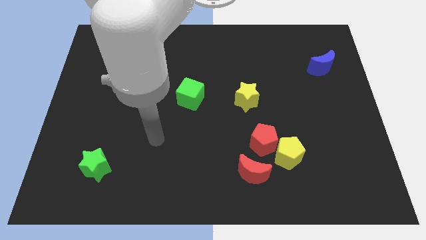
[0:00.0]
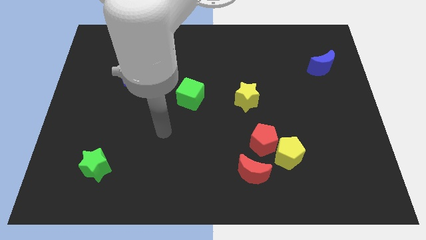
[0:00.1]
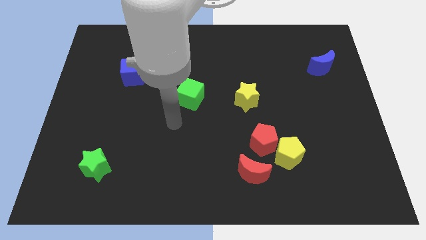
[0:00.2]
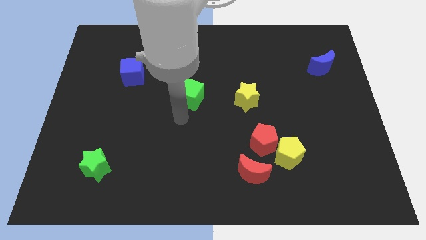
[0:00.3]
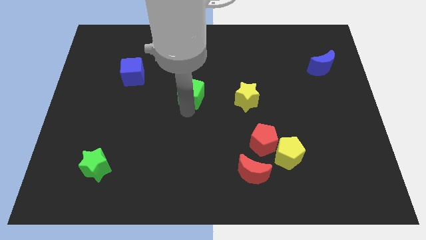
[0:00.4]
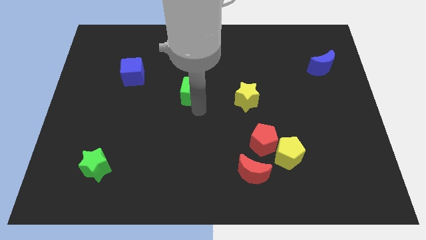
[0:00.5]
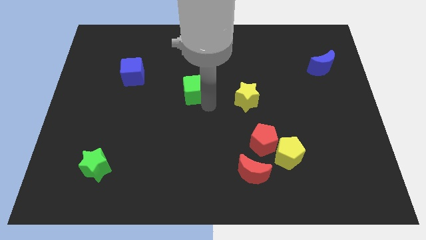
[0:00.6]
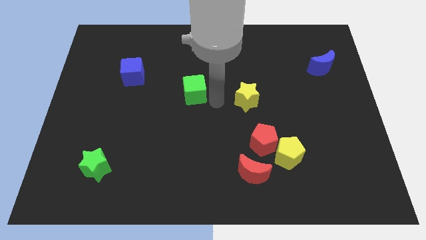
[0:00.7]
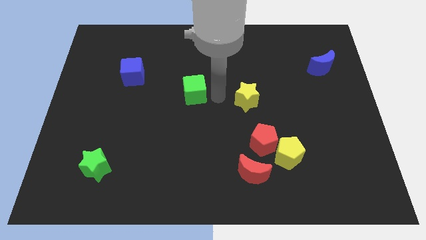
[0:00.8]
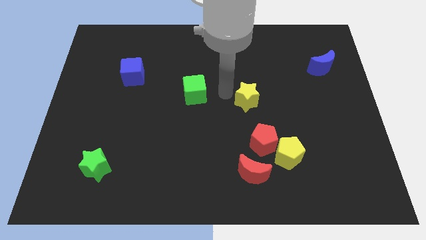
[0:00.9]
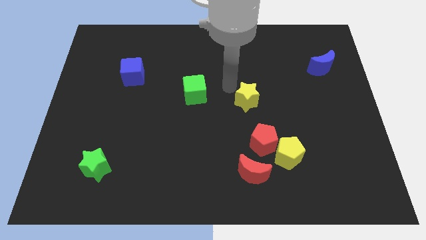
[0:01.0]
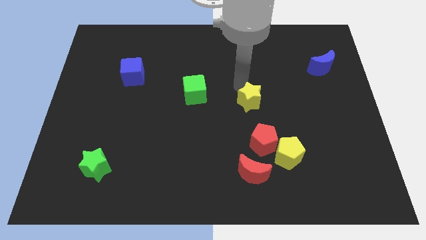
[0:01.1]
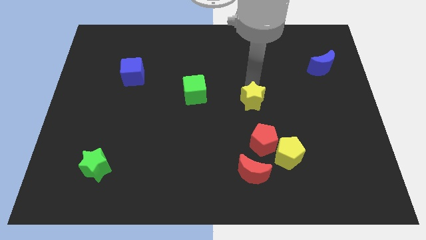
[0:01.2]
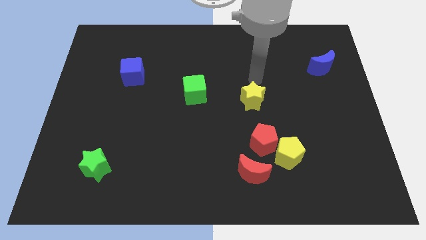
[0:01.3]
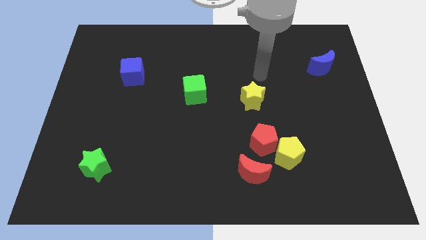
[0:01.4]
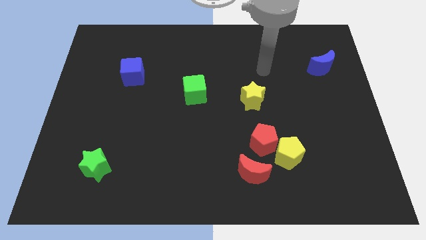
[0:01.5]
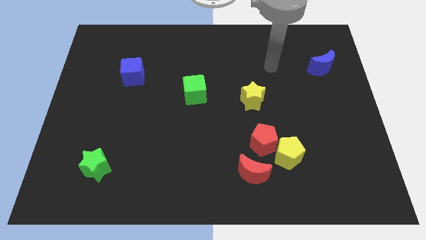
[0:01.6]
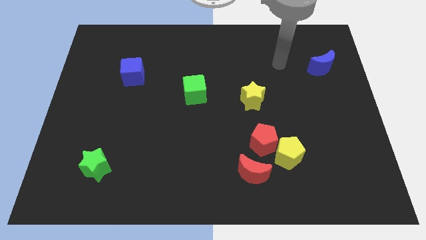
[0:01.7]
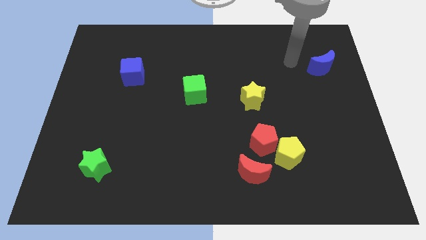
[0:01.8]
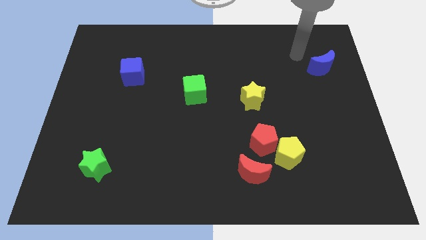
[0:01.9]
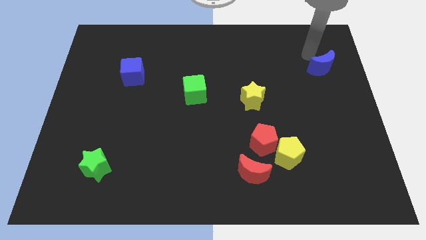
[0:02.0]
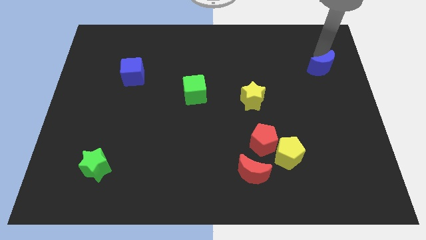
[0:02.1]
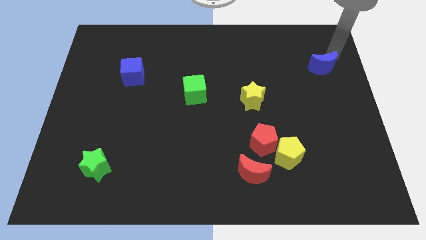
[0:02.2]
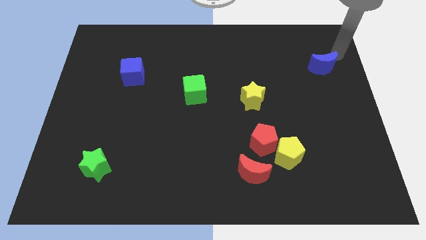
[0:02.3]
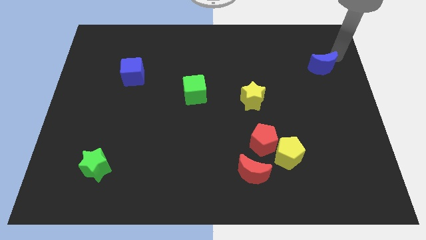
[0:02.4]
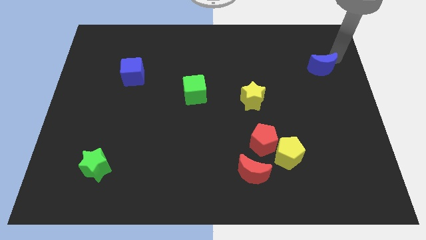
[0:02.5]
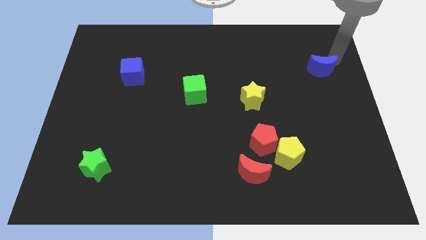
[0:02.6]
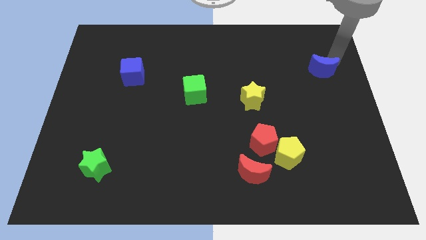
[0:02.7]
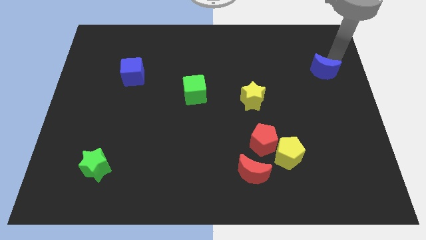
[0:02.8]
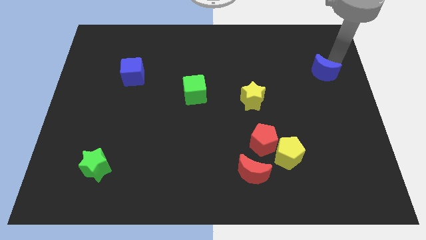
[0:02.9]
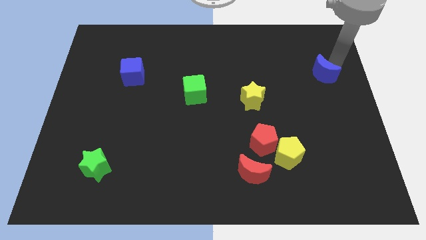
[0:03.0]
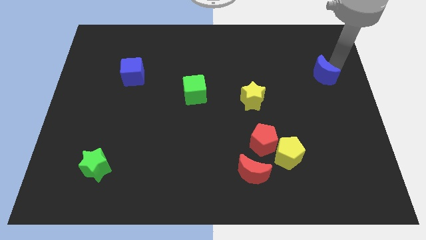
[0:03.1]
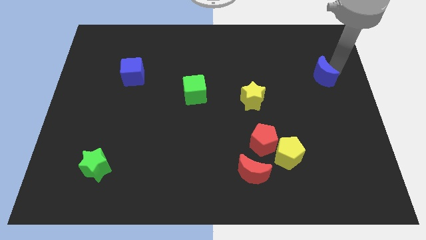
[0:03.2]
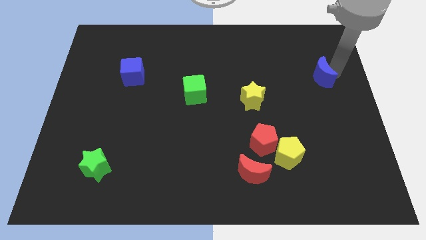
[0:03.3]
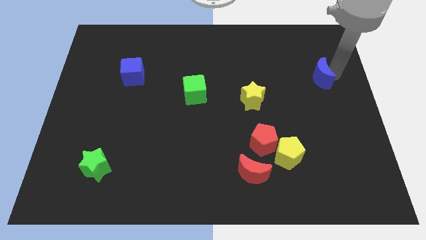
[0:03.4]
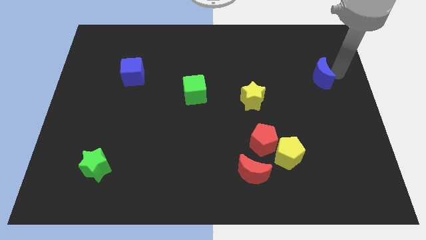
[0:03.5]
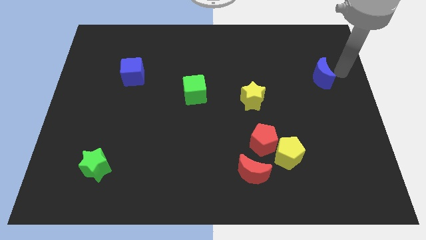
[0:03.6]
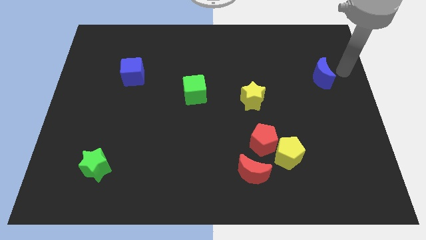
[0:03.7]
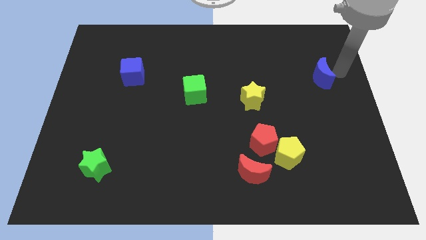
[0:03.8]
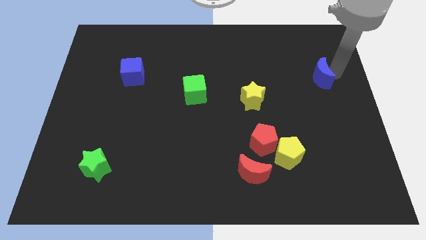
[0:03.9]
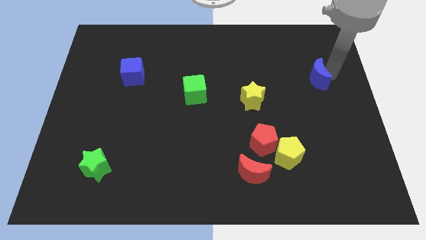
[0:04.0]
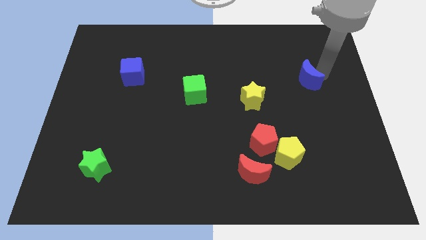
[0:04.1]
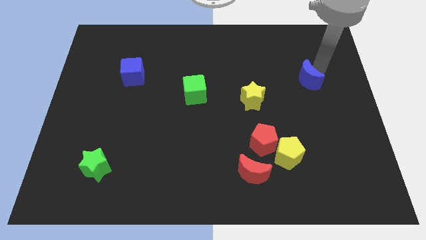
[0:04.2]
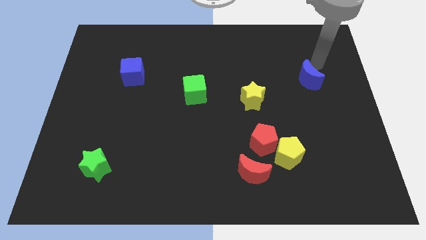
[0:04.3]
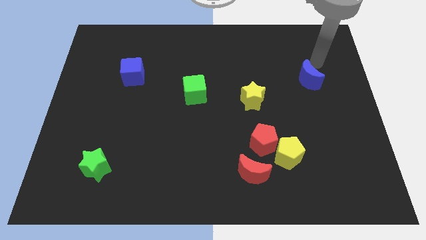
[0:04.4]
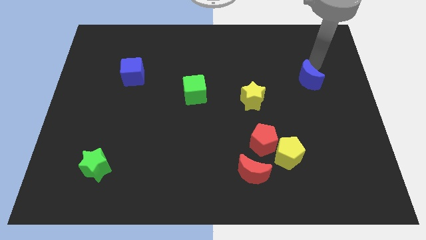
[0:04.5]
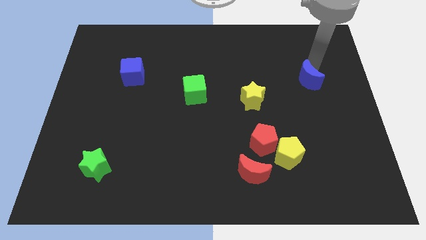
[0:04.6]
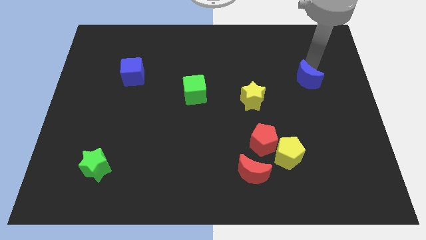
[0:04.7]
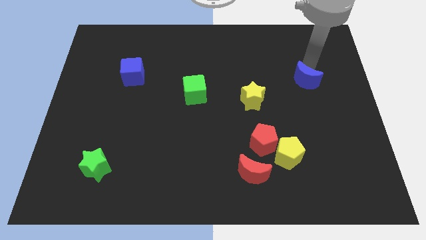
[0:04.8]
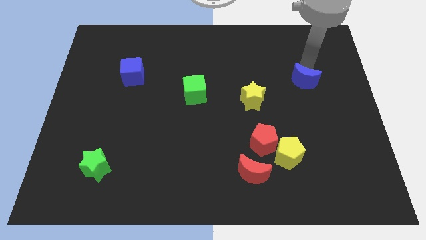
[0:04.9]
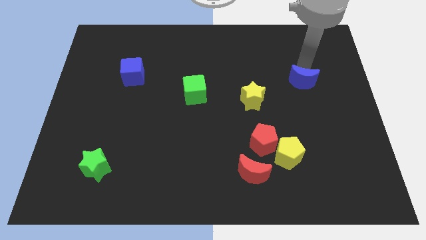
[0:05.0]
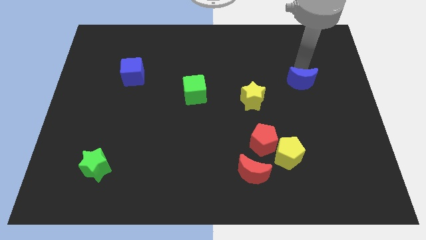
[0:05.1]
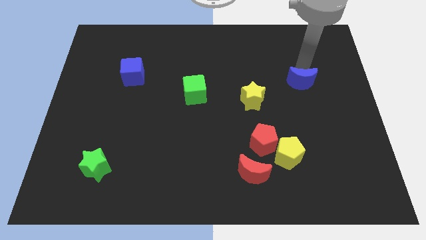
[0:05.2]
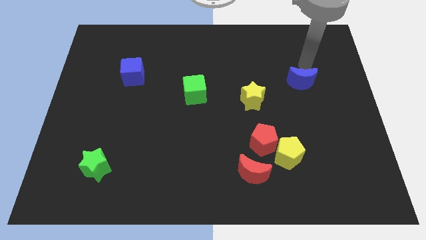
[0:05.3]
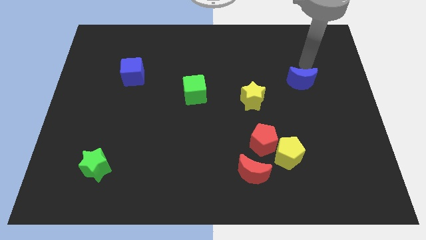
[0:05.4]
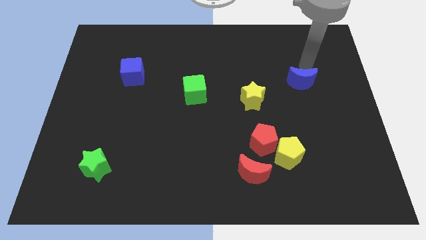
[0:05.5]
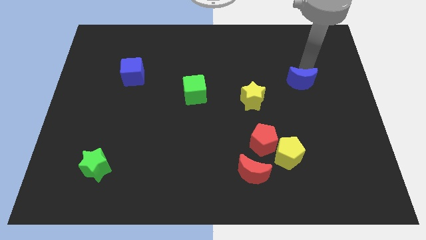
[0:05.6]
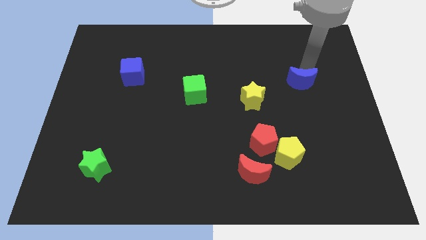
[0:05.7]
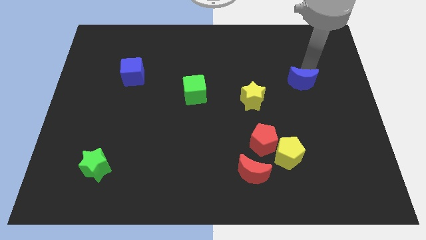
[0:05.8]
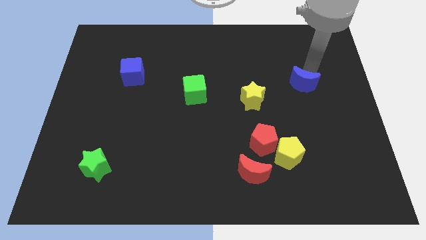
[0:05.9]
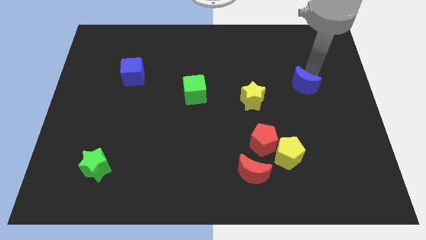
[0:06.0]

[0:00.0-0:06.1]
move the blue moon just right of the yellow star
